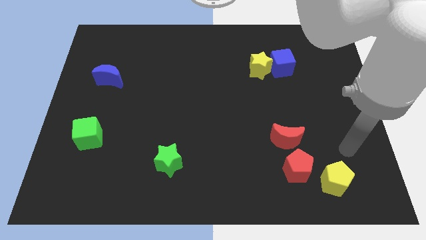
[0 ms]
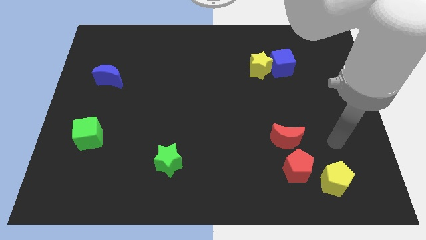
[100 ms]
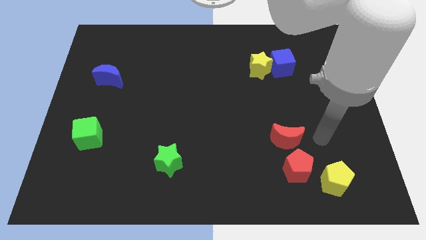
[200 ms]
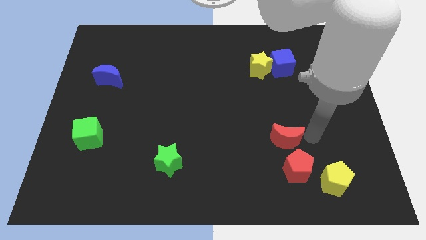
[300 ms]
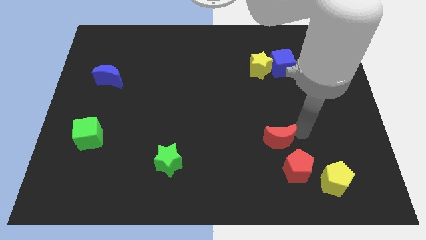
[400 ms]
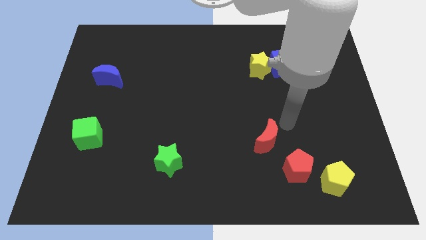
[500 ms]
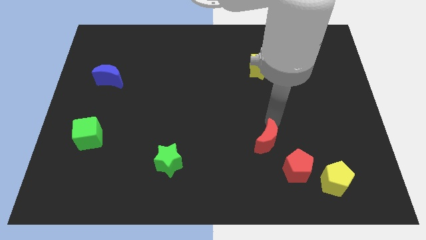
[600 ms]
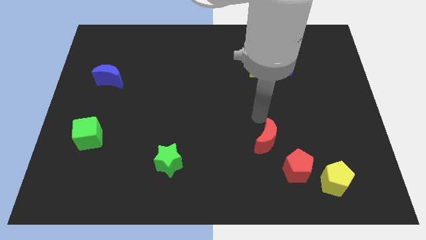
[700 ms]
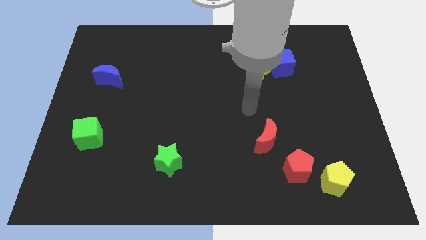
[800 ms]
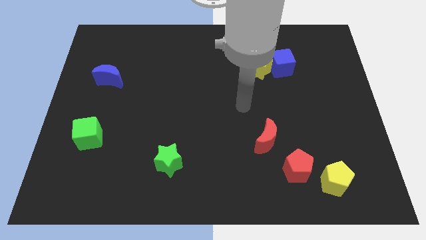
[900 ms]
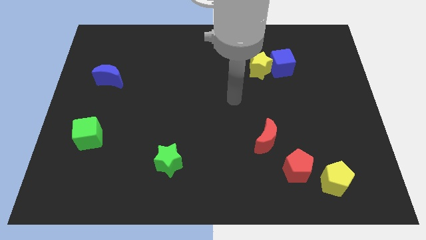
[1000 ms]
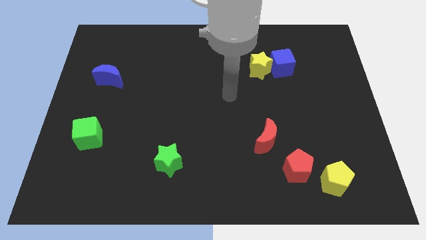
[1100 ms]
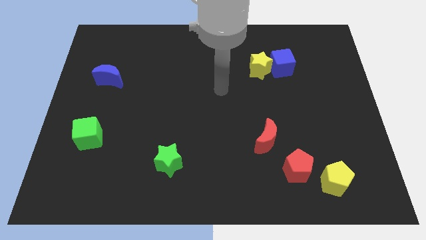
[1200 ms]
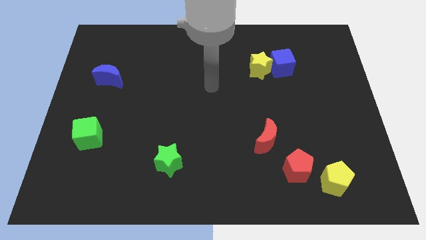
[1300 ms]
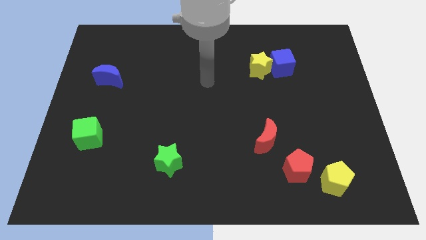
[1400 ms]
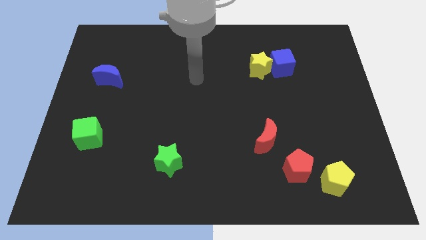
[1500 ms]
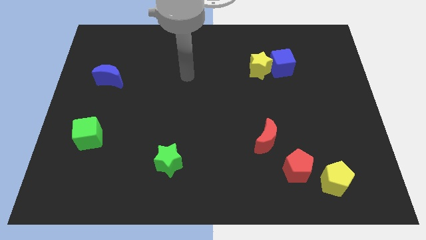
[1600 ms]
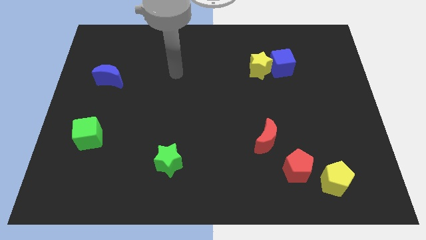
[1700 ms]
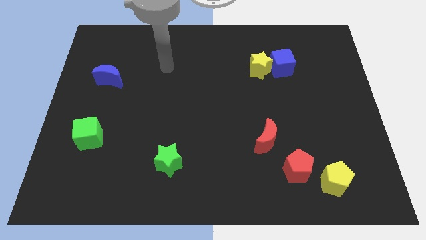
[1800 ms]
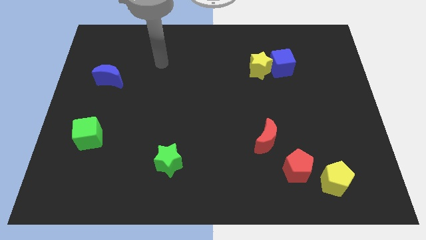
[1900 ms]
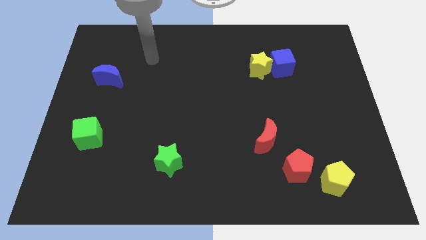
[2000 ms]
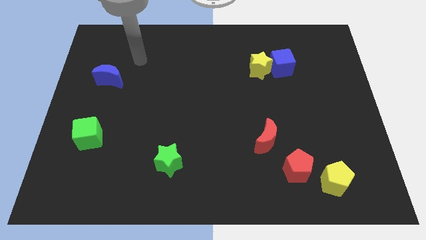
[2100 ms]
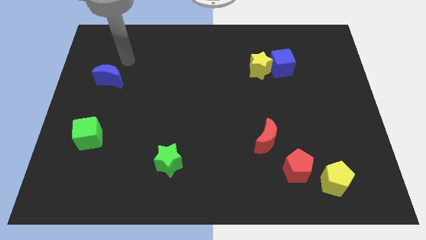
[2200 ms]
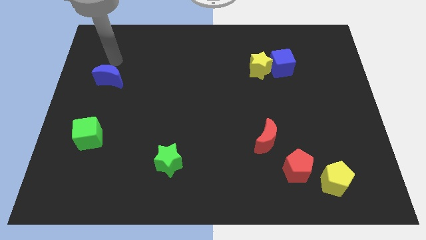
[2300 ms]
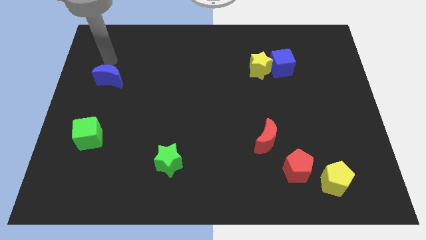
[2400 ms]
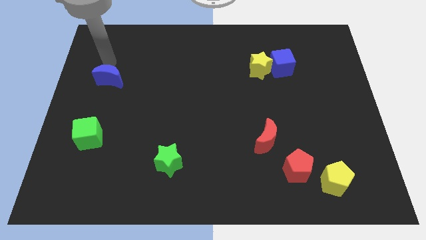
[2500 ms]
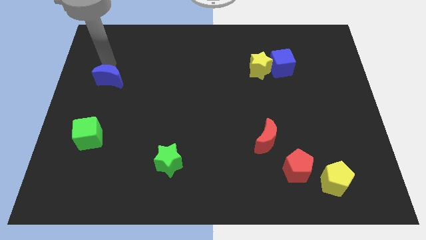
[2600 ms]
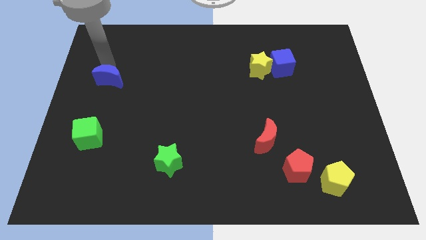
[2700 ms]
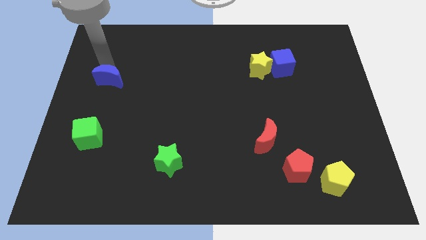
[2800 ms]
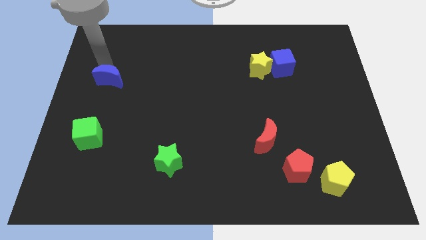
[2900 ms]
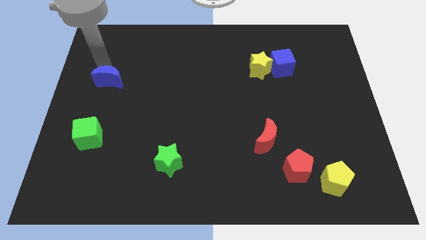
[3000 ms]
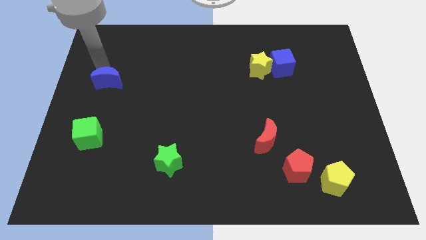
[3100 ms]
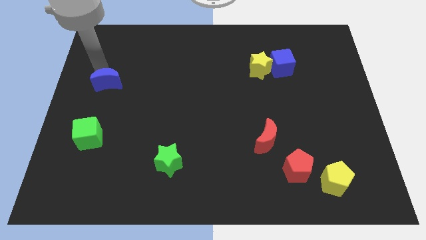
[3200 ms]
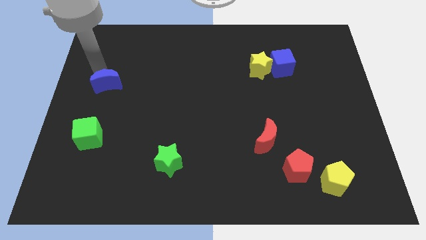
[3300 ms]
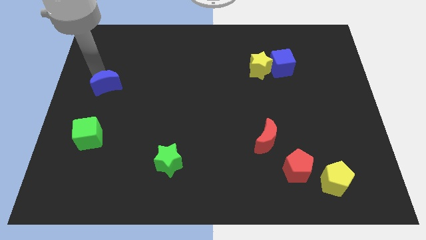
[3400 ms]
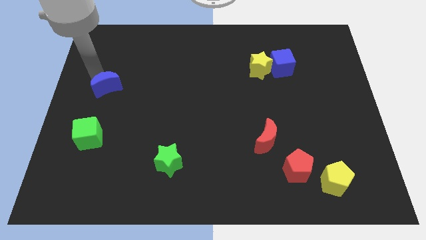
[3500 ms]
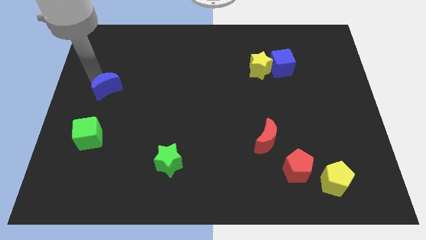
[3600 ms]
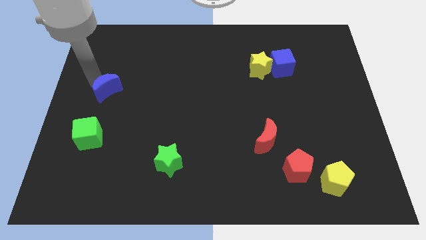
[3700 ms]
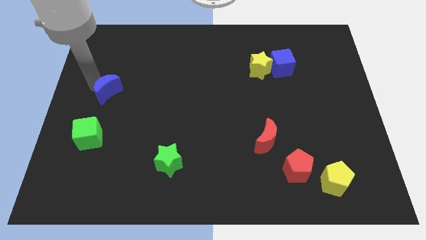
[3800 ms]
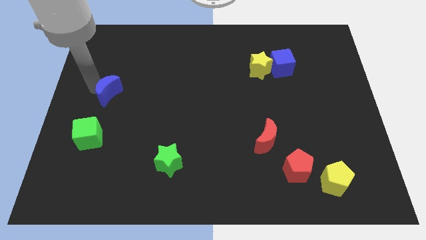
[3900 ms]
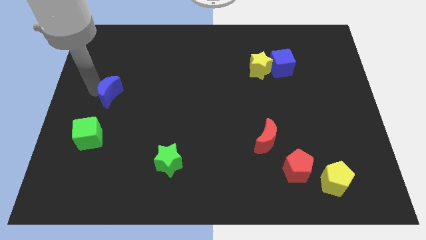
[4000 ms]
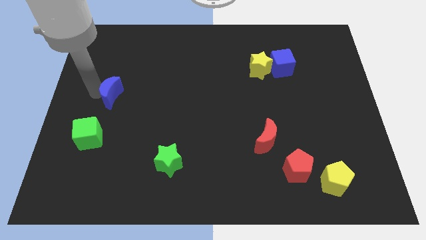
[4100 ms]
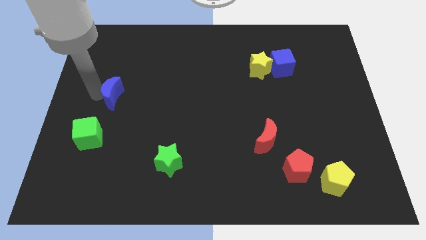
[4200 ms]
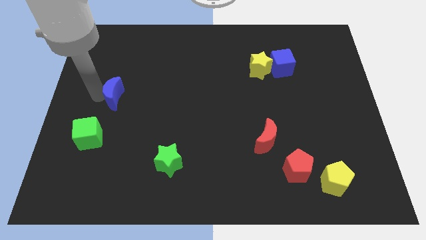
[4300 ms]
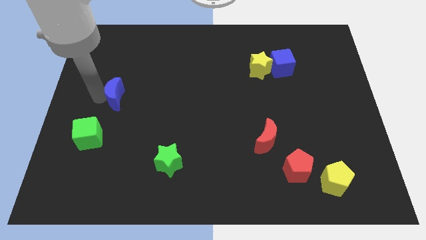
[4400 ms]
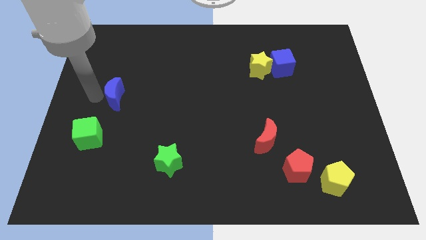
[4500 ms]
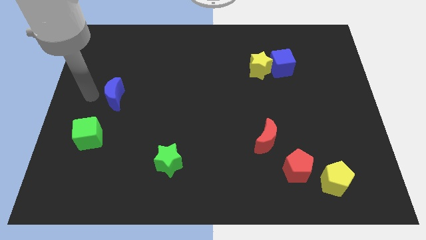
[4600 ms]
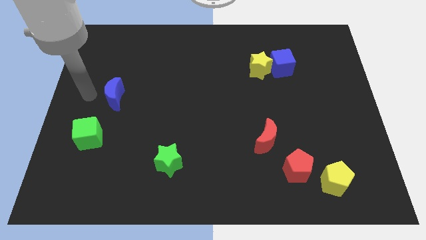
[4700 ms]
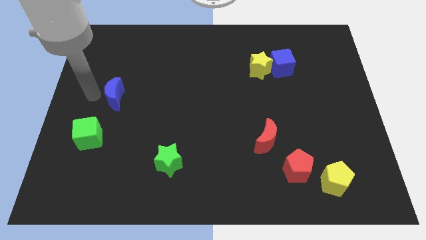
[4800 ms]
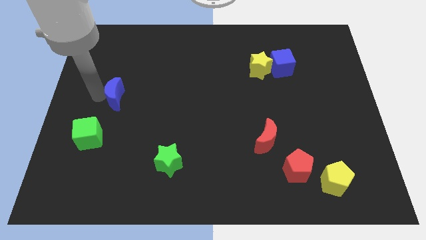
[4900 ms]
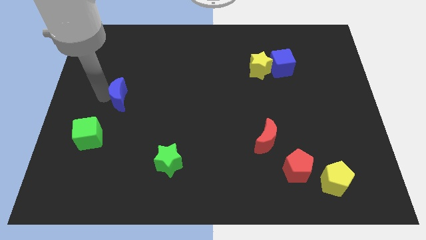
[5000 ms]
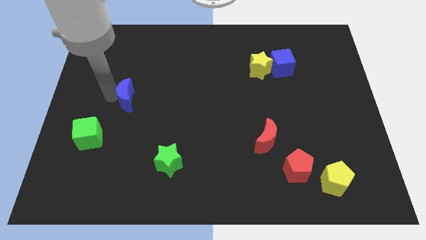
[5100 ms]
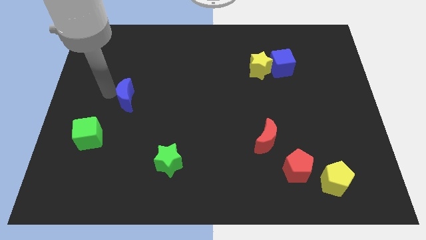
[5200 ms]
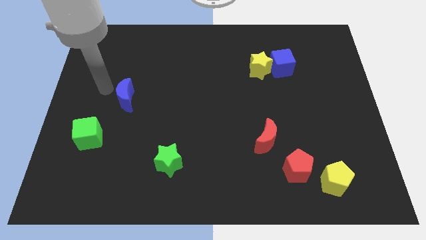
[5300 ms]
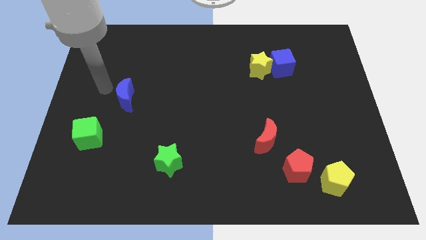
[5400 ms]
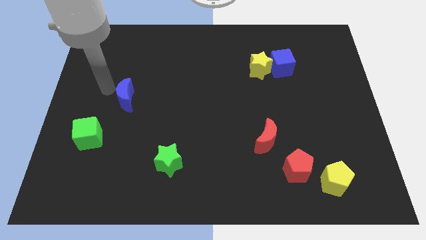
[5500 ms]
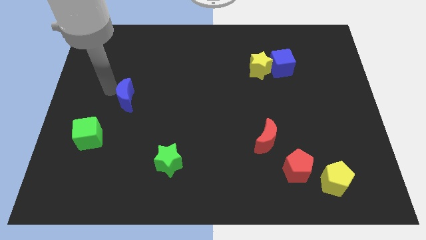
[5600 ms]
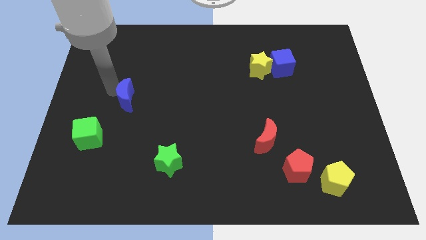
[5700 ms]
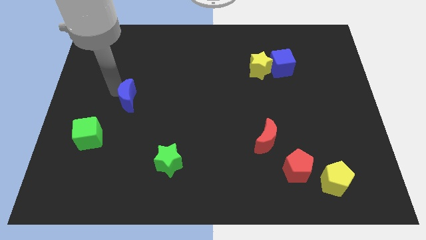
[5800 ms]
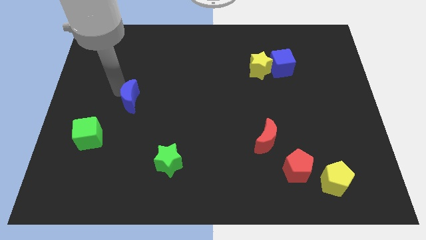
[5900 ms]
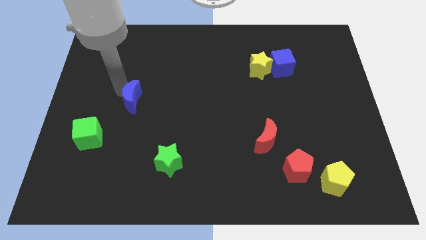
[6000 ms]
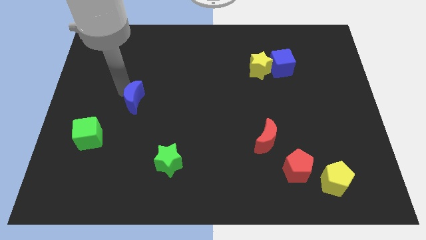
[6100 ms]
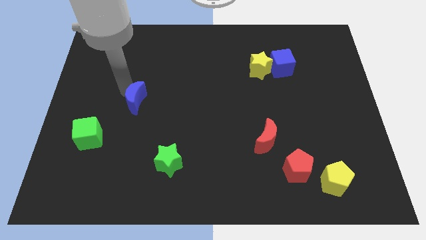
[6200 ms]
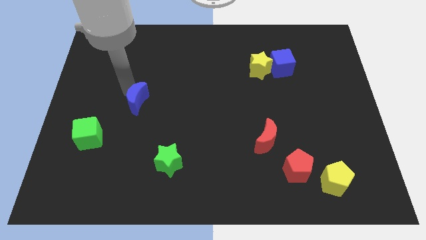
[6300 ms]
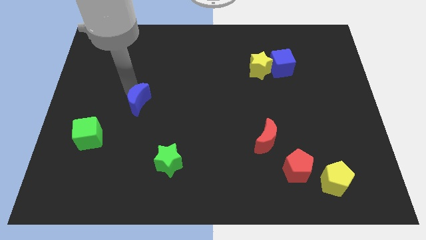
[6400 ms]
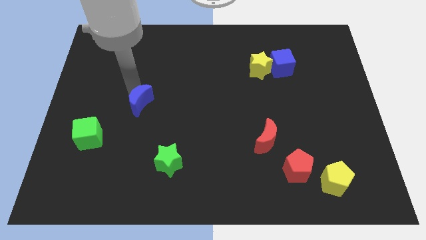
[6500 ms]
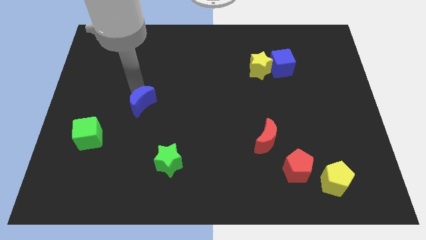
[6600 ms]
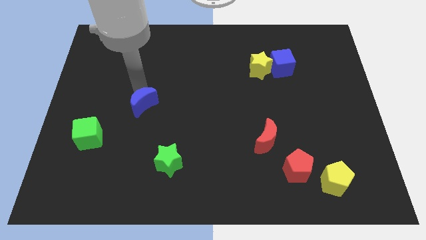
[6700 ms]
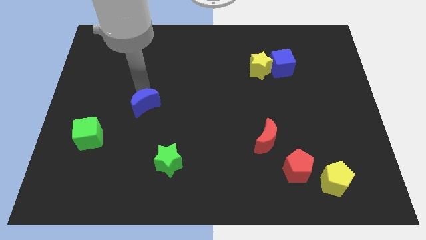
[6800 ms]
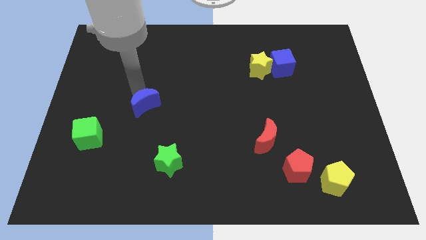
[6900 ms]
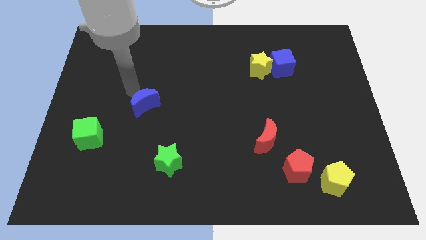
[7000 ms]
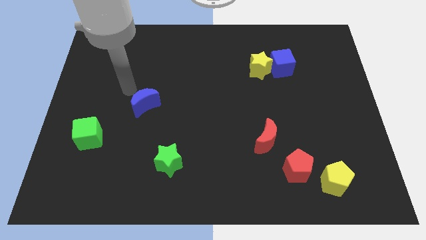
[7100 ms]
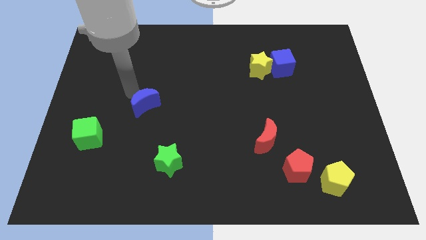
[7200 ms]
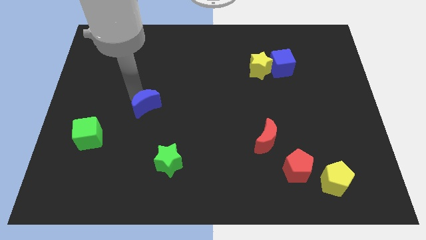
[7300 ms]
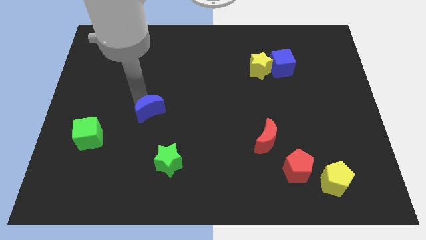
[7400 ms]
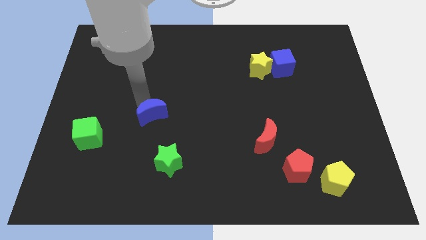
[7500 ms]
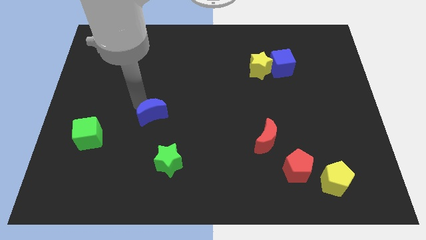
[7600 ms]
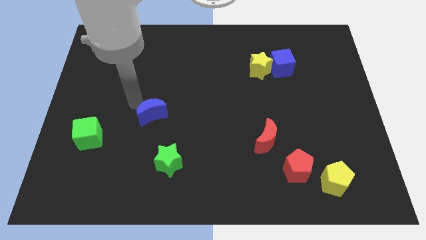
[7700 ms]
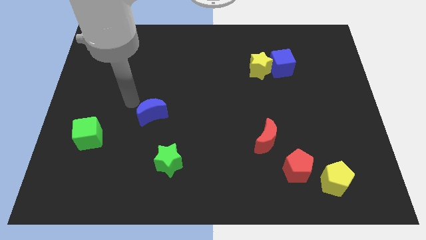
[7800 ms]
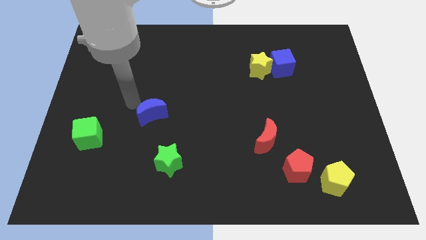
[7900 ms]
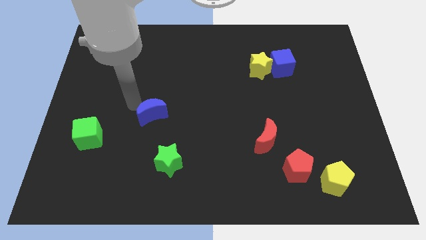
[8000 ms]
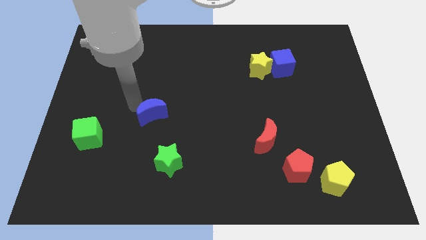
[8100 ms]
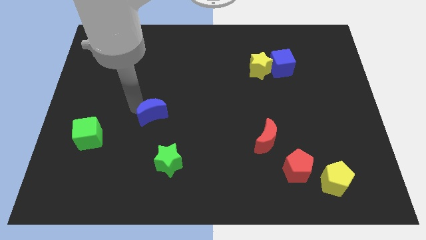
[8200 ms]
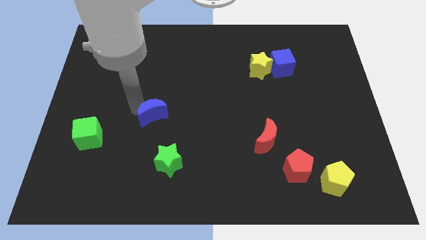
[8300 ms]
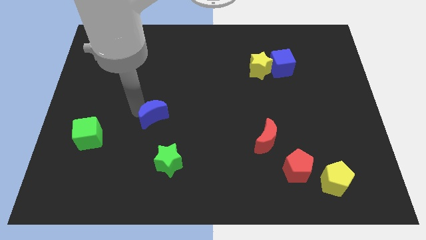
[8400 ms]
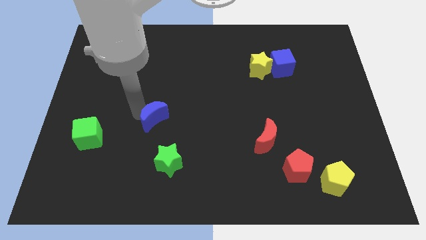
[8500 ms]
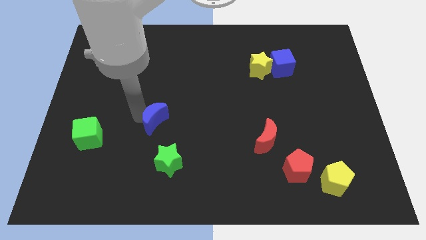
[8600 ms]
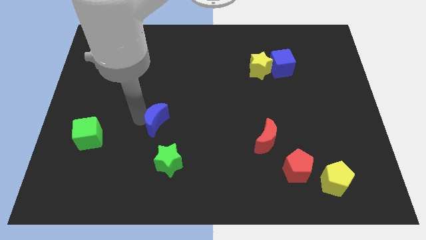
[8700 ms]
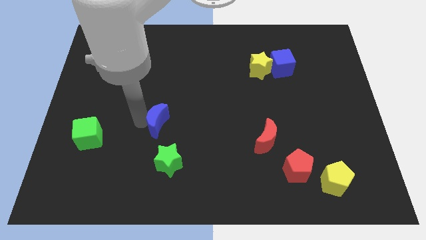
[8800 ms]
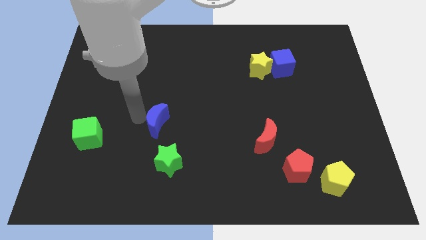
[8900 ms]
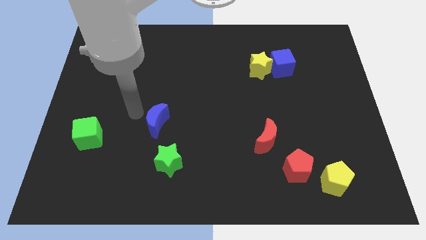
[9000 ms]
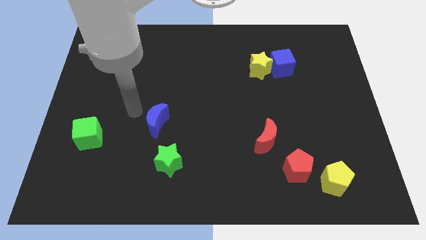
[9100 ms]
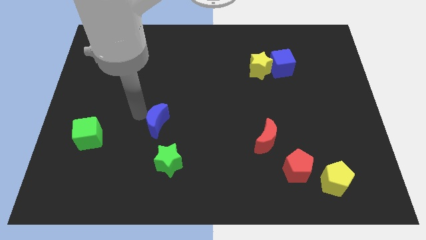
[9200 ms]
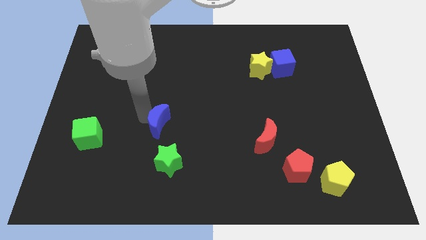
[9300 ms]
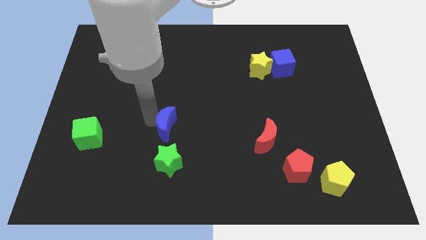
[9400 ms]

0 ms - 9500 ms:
push the blue moon diagonally downwards and to the right
